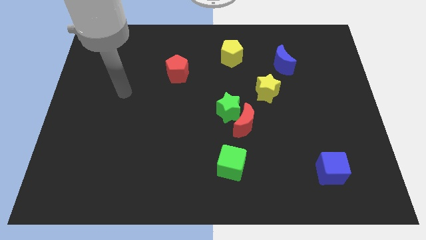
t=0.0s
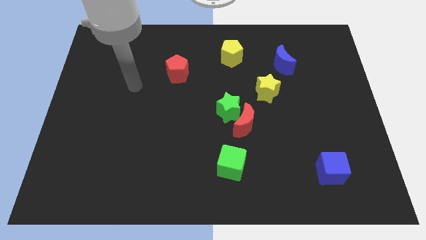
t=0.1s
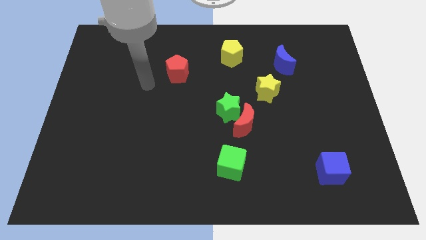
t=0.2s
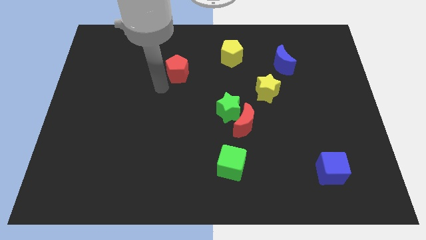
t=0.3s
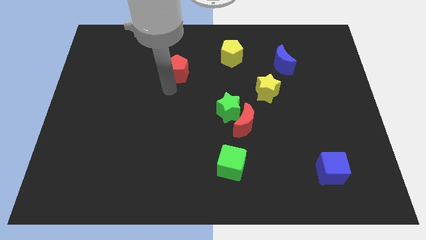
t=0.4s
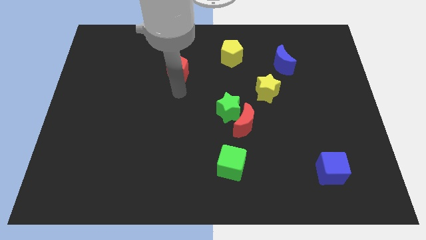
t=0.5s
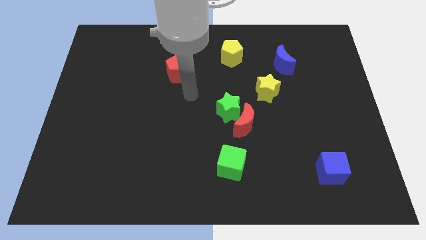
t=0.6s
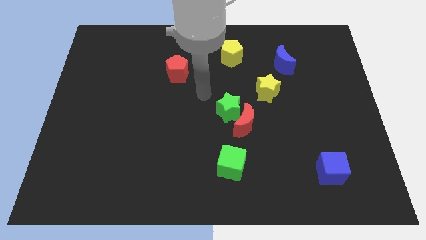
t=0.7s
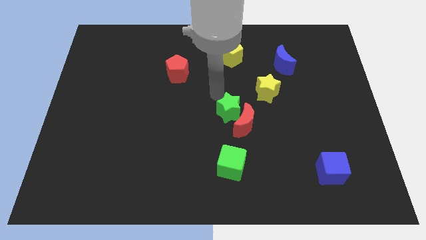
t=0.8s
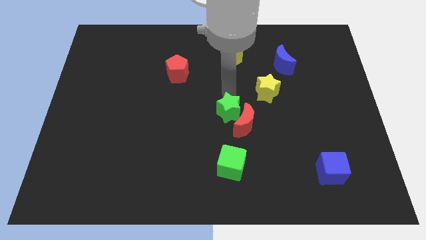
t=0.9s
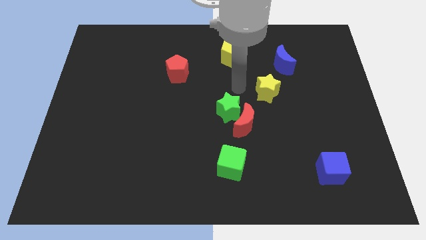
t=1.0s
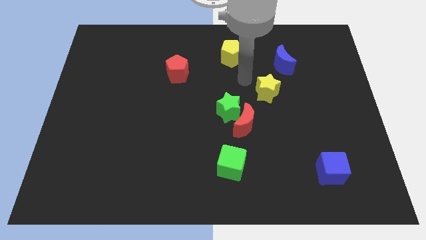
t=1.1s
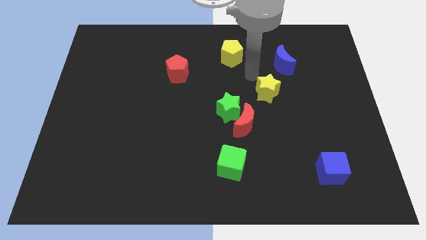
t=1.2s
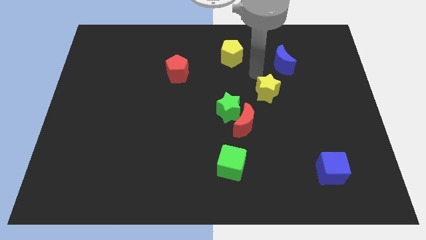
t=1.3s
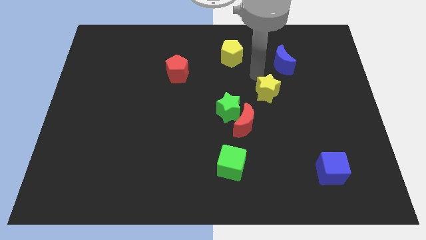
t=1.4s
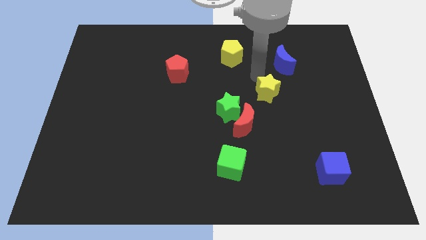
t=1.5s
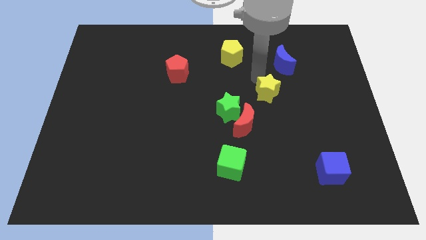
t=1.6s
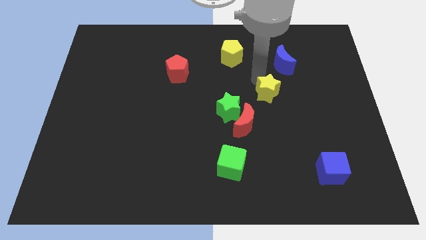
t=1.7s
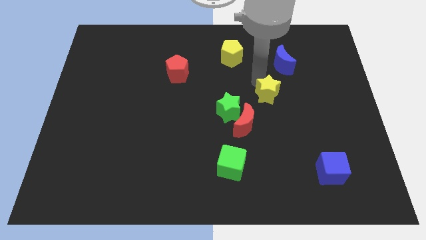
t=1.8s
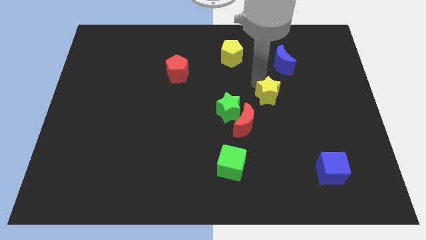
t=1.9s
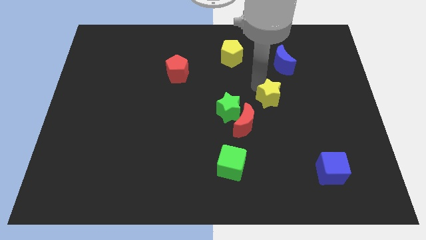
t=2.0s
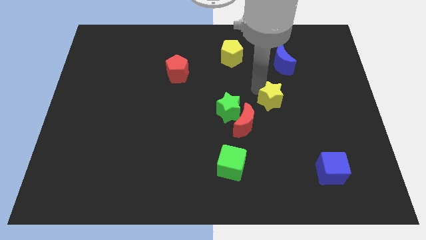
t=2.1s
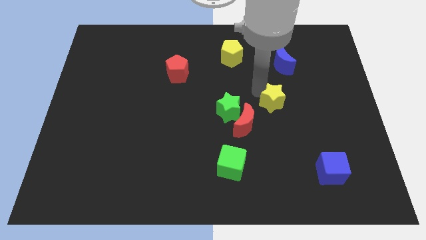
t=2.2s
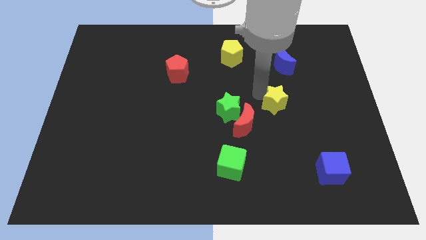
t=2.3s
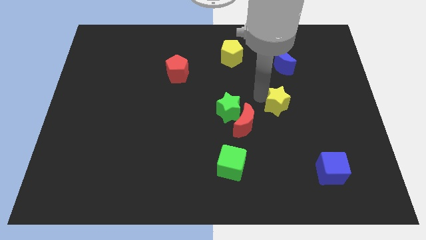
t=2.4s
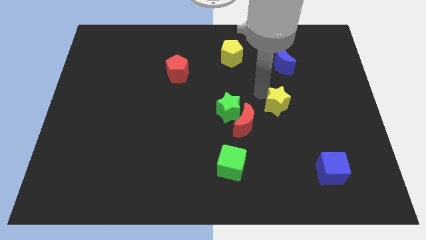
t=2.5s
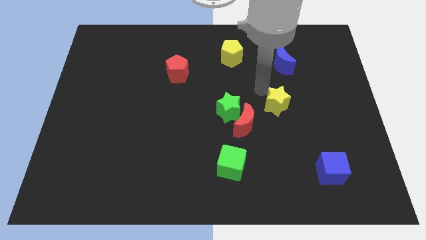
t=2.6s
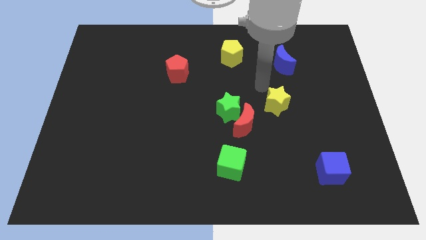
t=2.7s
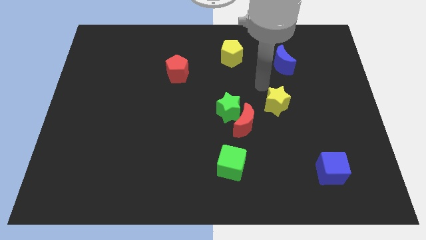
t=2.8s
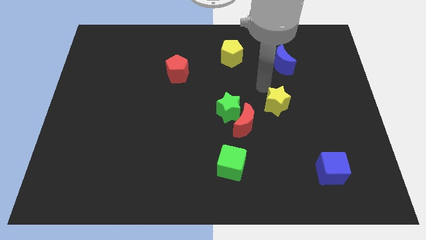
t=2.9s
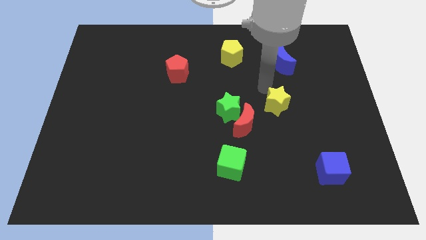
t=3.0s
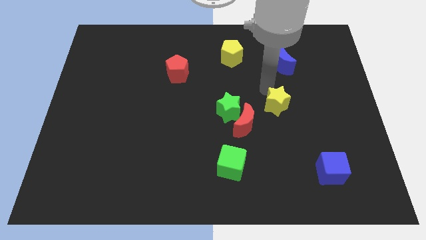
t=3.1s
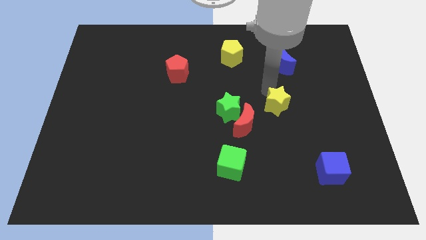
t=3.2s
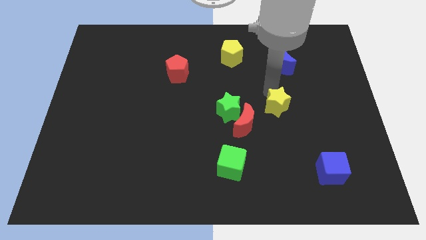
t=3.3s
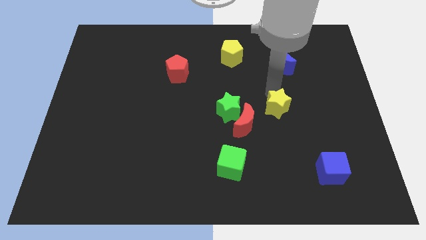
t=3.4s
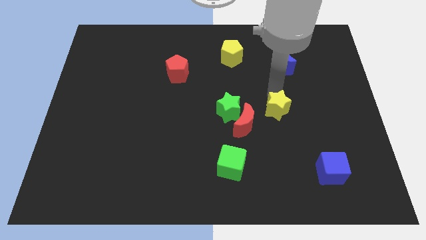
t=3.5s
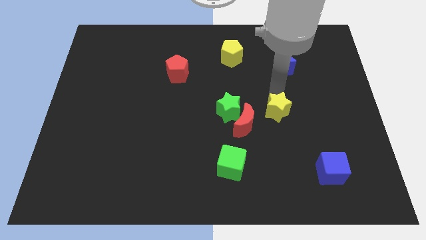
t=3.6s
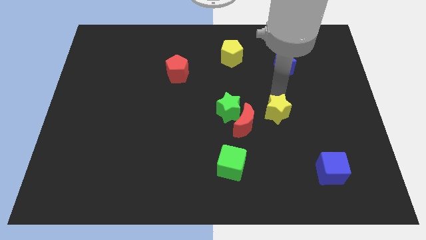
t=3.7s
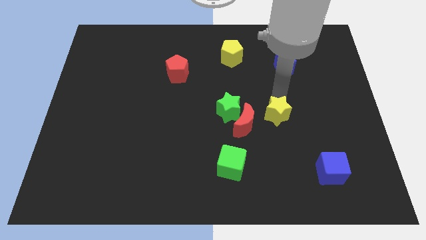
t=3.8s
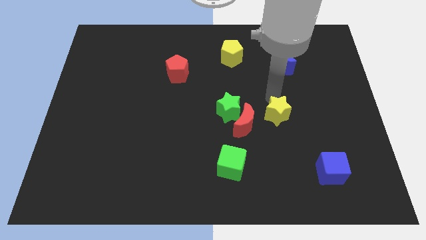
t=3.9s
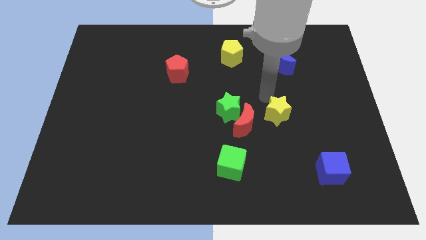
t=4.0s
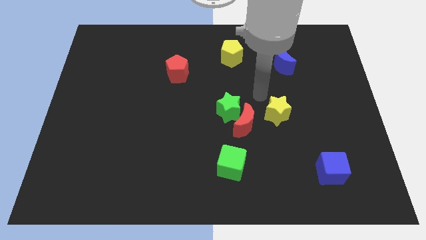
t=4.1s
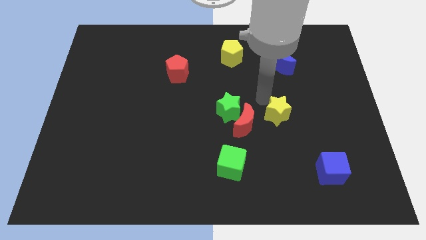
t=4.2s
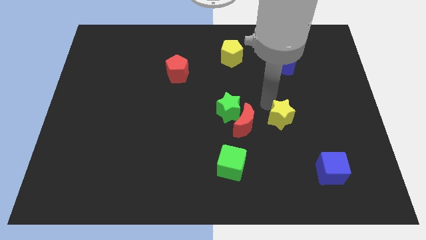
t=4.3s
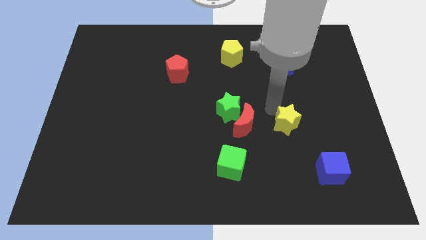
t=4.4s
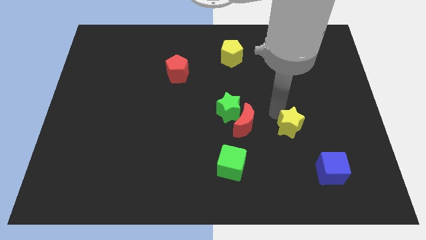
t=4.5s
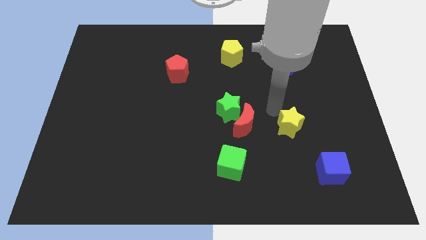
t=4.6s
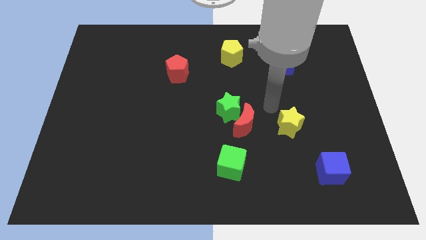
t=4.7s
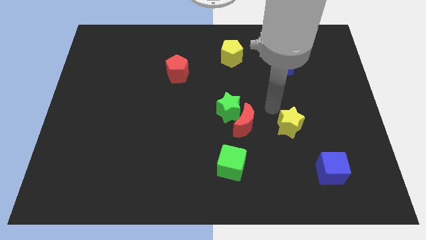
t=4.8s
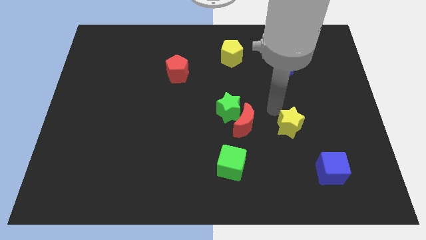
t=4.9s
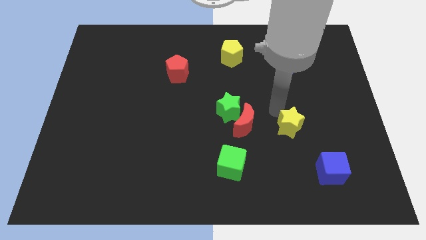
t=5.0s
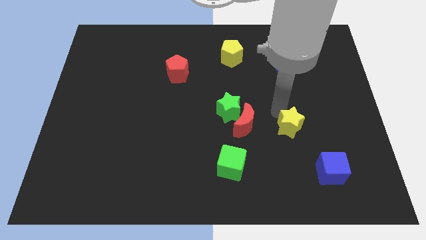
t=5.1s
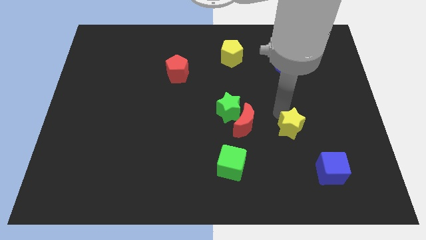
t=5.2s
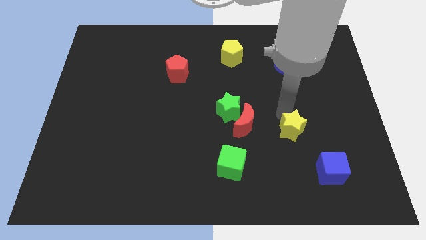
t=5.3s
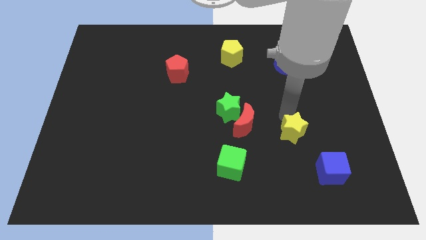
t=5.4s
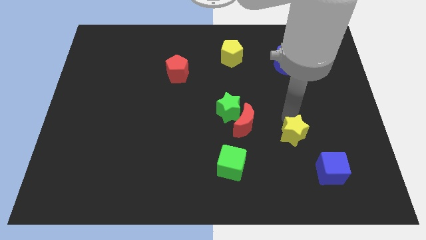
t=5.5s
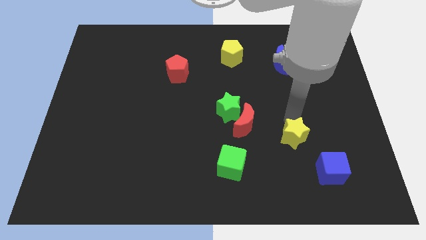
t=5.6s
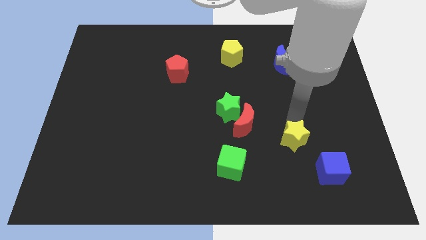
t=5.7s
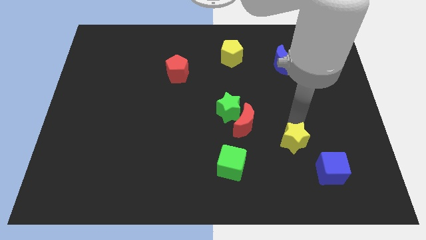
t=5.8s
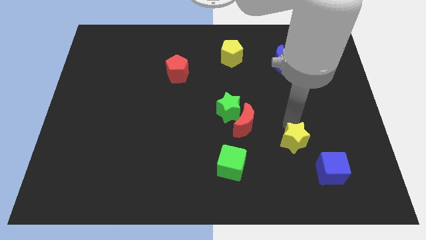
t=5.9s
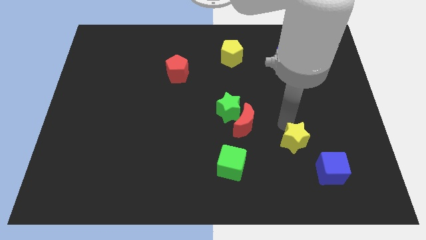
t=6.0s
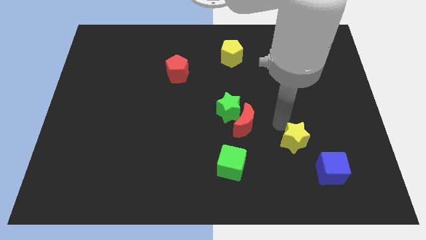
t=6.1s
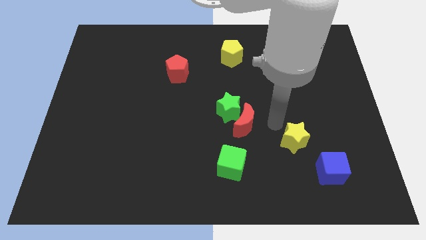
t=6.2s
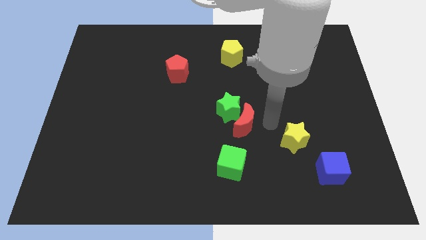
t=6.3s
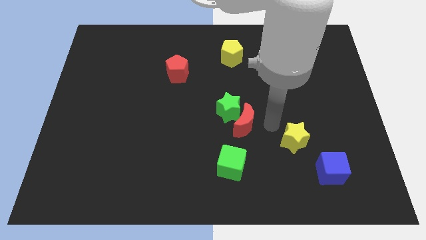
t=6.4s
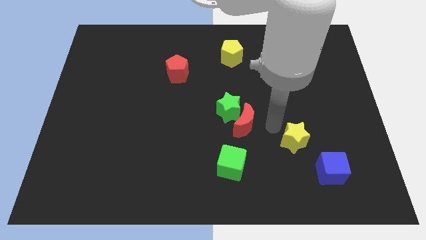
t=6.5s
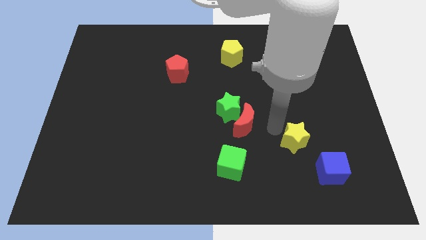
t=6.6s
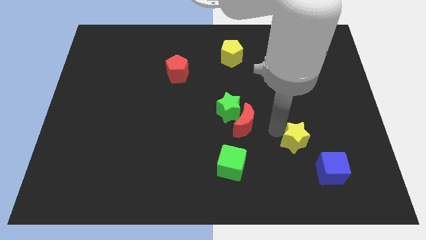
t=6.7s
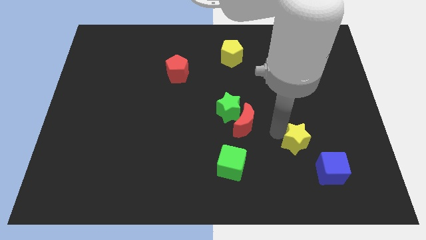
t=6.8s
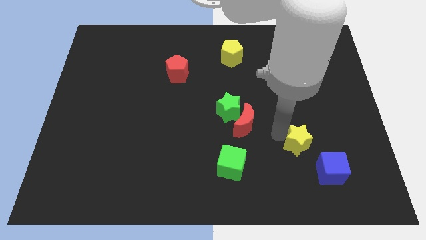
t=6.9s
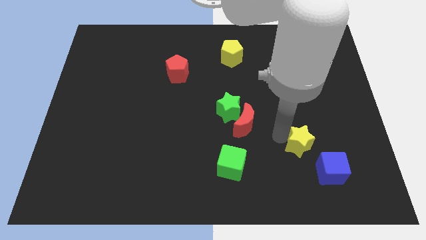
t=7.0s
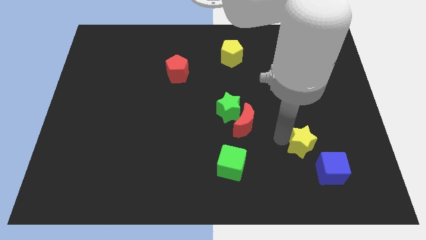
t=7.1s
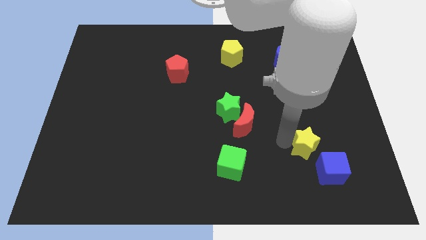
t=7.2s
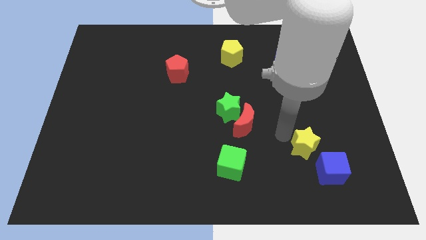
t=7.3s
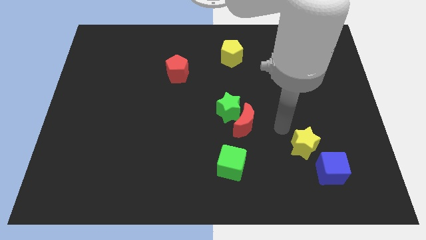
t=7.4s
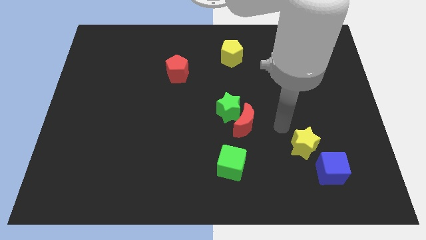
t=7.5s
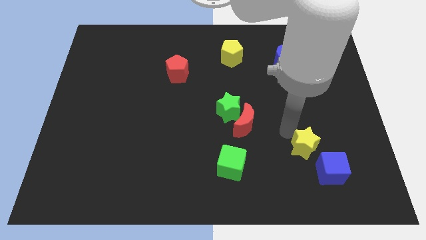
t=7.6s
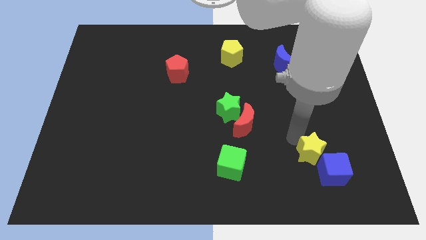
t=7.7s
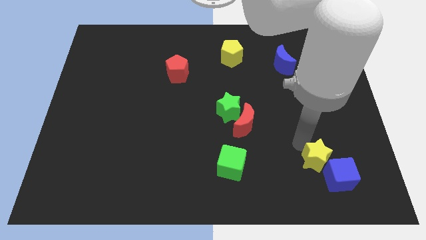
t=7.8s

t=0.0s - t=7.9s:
slide the yellow star to the blue cube

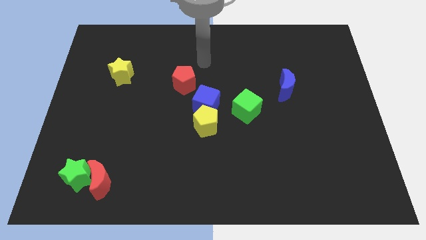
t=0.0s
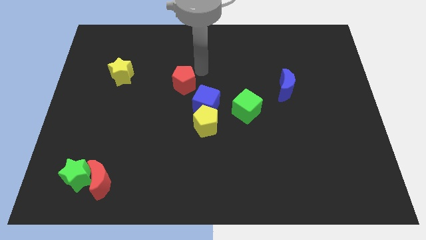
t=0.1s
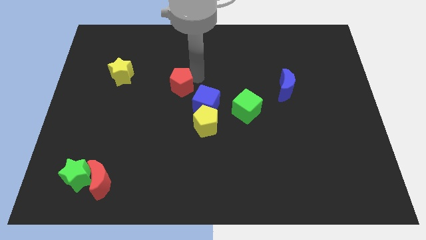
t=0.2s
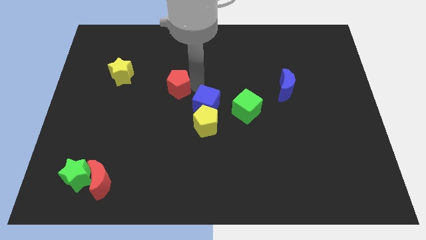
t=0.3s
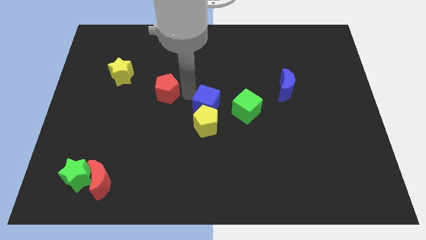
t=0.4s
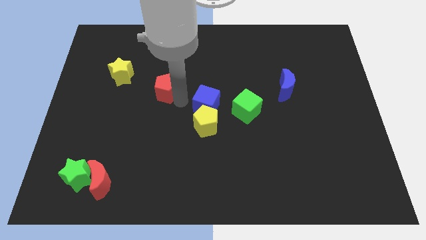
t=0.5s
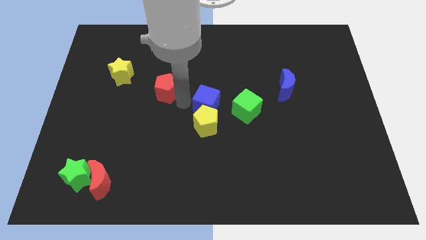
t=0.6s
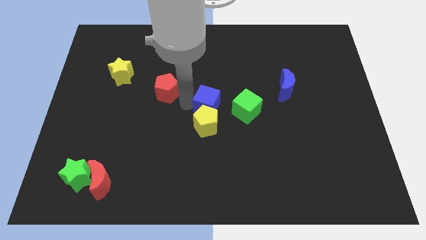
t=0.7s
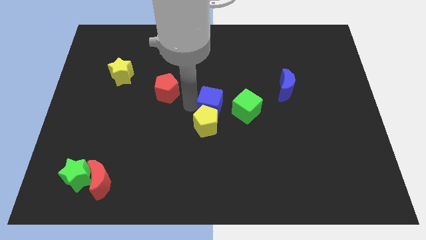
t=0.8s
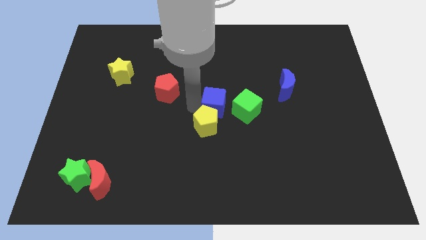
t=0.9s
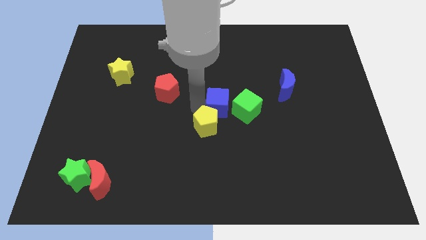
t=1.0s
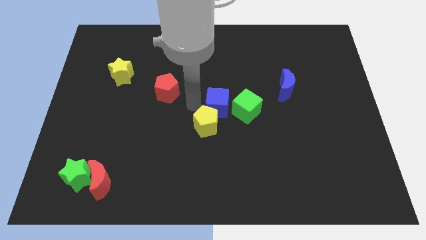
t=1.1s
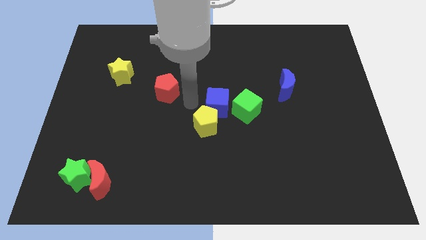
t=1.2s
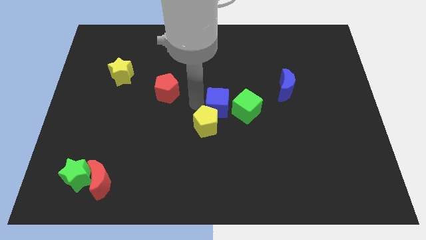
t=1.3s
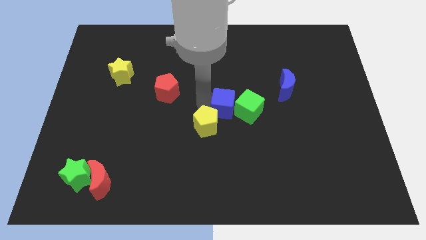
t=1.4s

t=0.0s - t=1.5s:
put the blue cube next to the green cube
